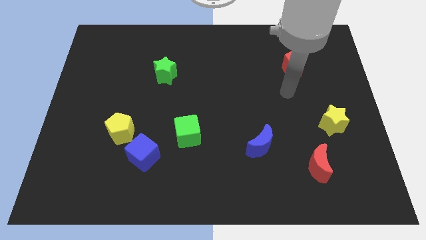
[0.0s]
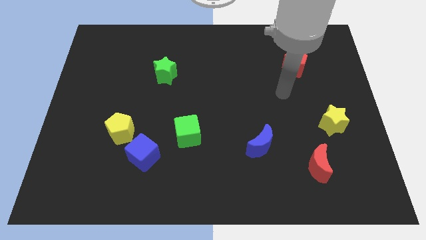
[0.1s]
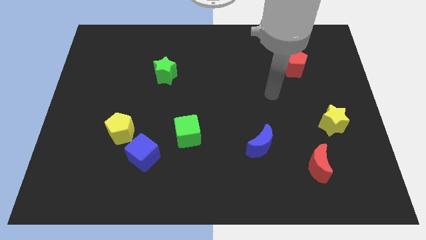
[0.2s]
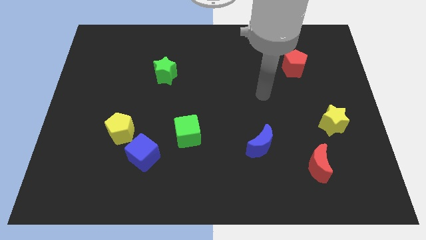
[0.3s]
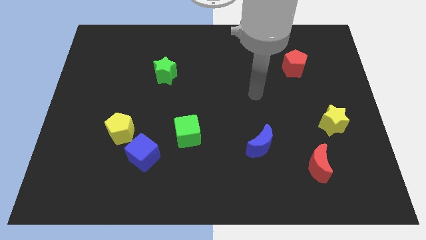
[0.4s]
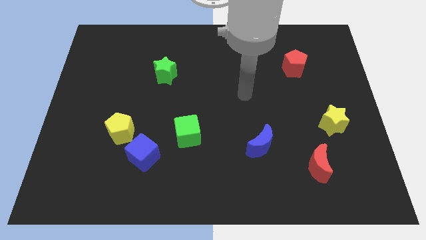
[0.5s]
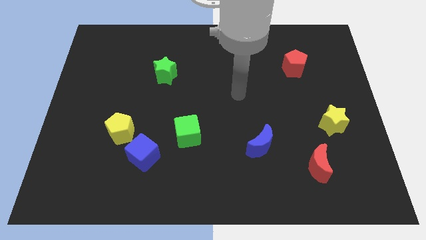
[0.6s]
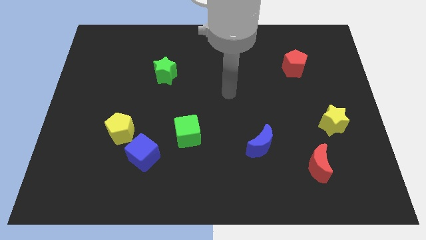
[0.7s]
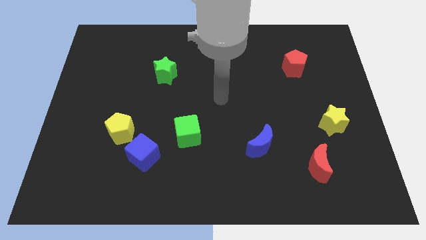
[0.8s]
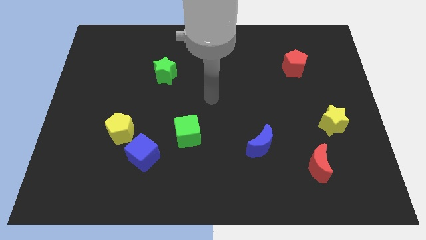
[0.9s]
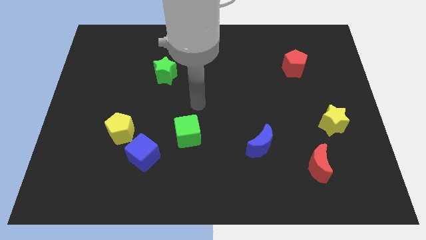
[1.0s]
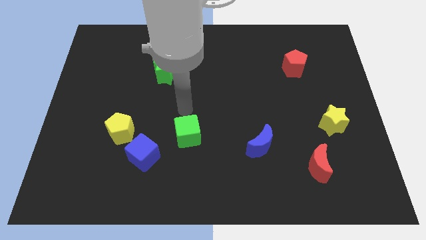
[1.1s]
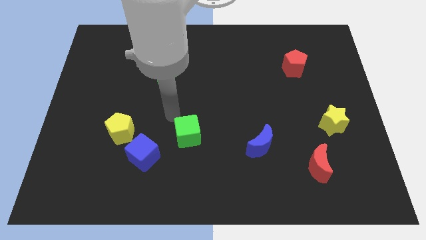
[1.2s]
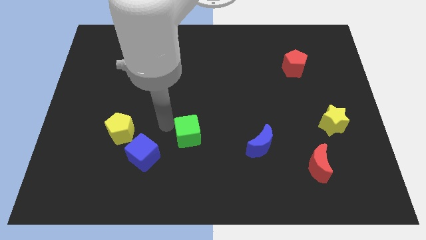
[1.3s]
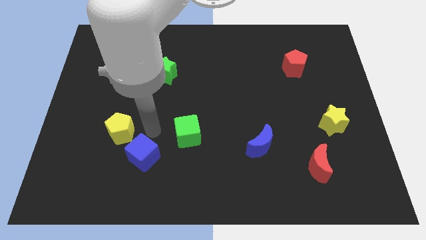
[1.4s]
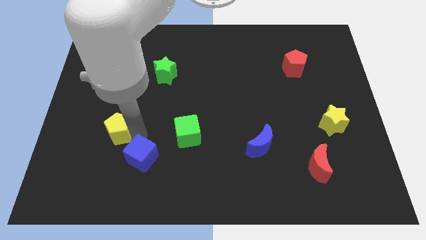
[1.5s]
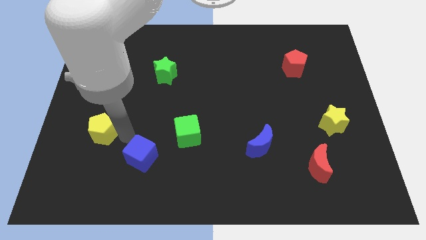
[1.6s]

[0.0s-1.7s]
separate the blue cube from the yellow pentagon

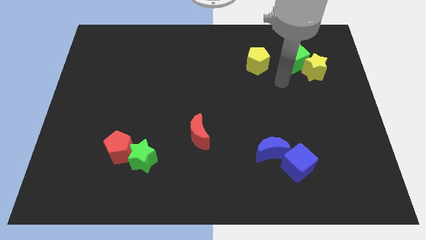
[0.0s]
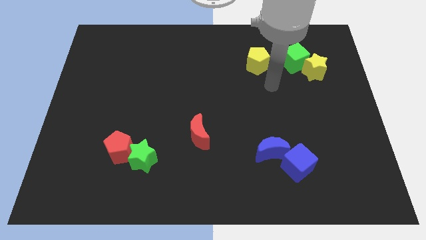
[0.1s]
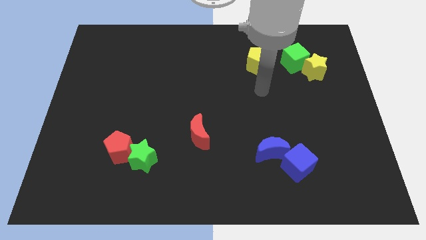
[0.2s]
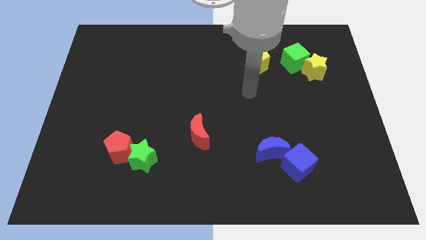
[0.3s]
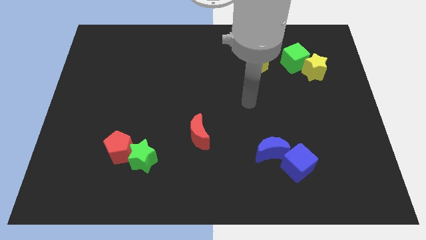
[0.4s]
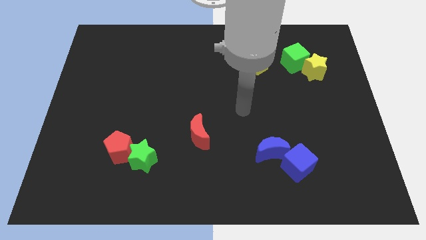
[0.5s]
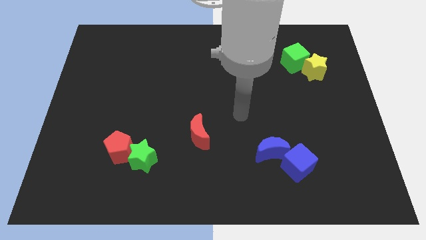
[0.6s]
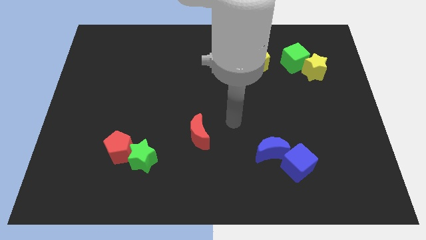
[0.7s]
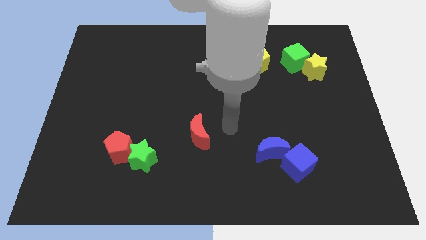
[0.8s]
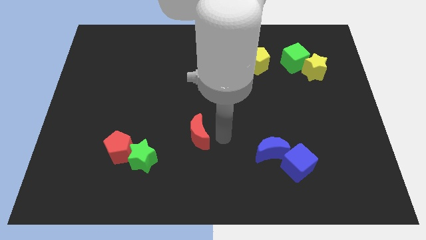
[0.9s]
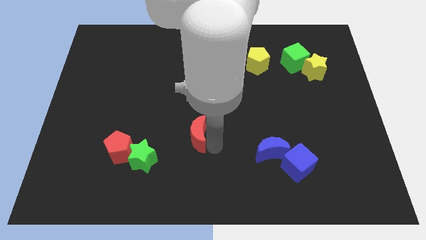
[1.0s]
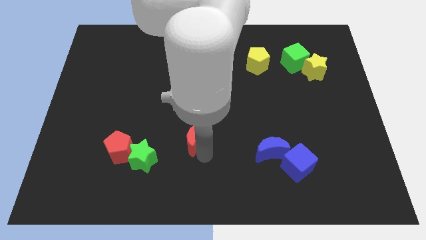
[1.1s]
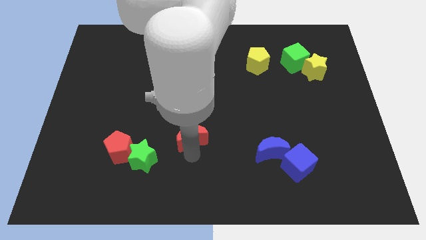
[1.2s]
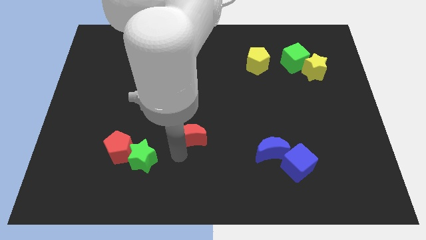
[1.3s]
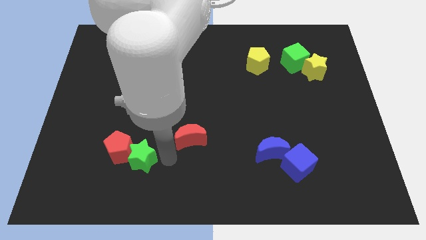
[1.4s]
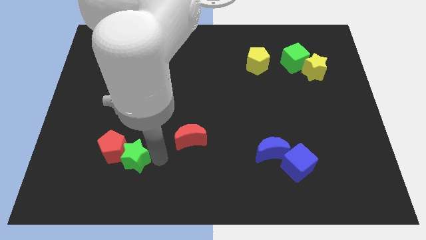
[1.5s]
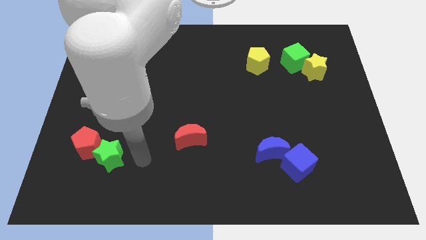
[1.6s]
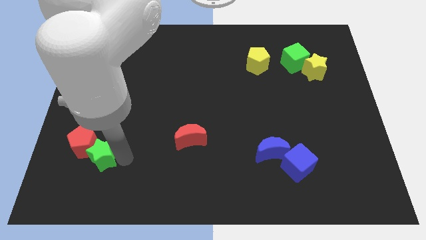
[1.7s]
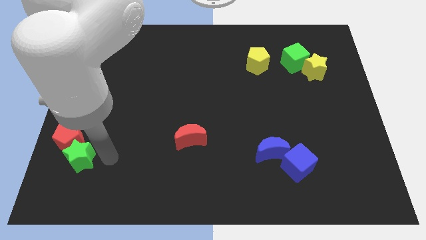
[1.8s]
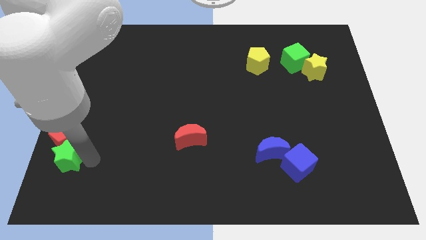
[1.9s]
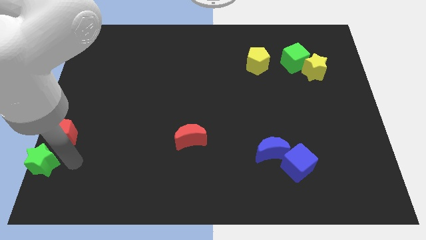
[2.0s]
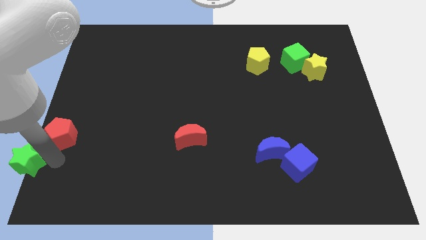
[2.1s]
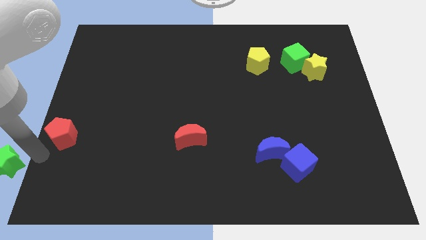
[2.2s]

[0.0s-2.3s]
move the red pentagon away from the green star

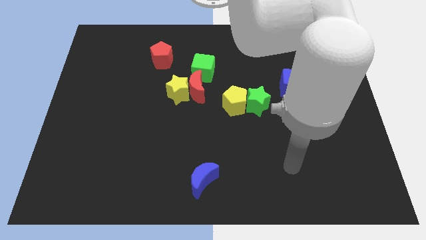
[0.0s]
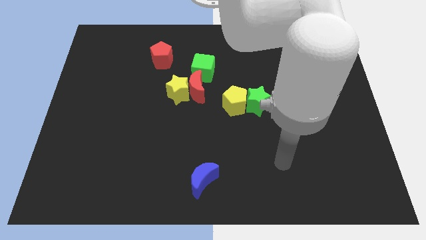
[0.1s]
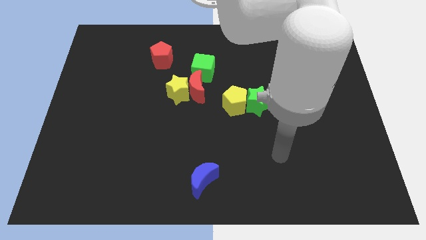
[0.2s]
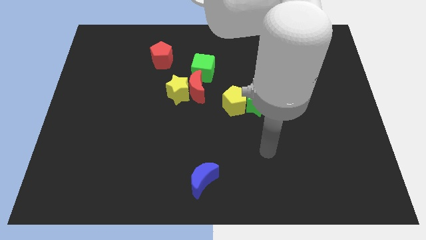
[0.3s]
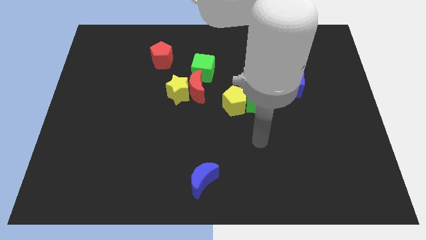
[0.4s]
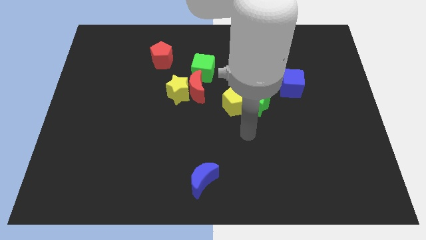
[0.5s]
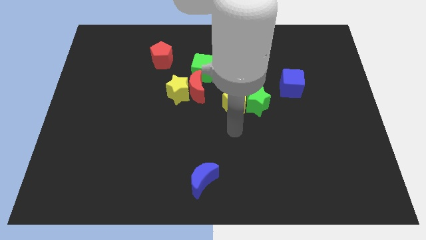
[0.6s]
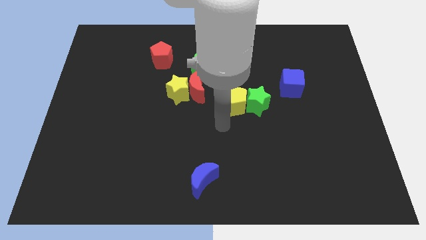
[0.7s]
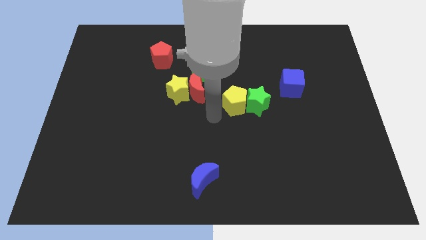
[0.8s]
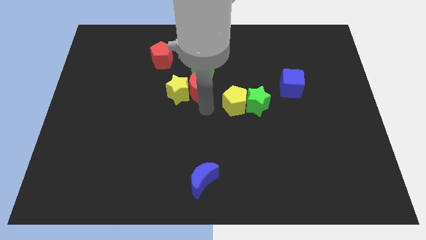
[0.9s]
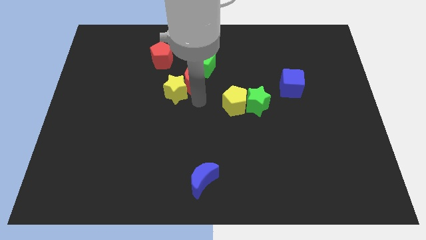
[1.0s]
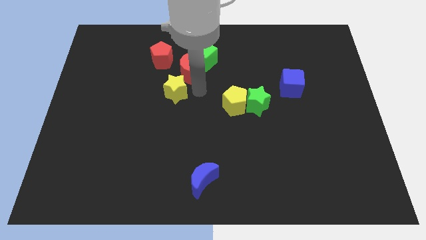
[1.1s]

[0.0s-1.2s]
separate the yellow star from the red moon and green cube

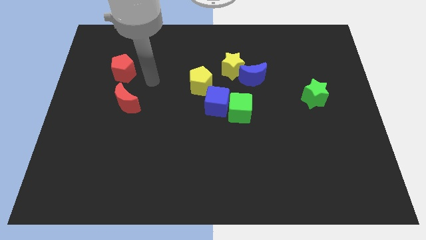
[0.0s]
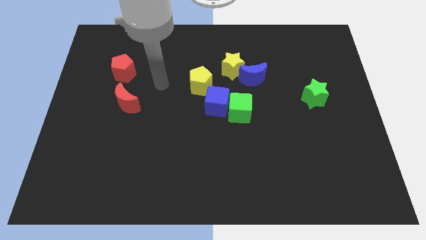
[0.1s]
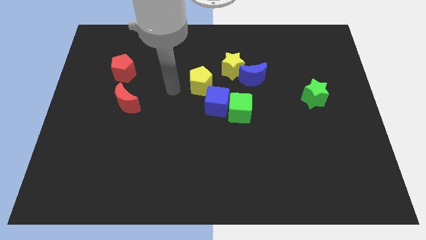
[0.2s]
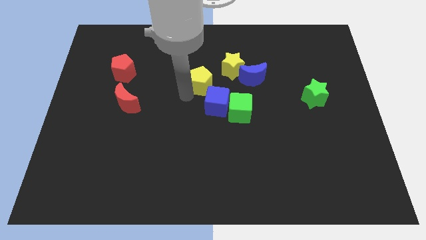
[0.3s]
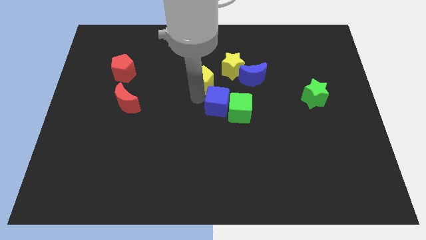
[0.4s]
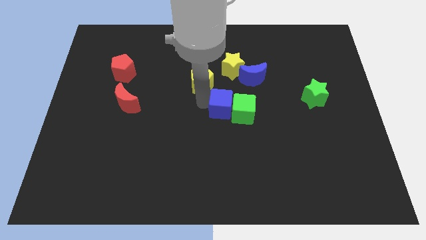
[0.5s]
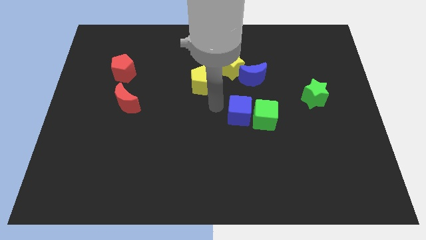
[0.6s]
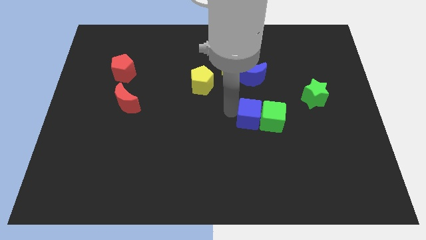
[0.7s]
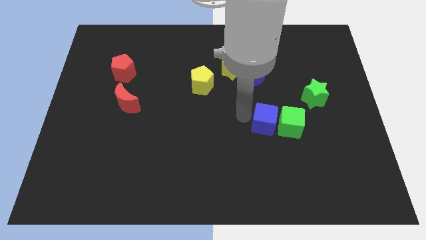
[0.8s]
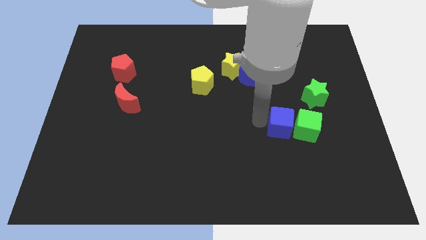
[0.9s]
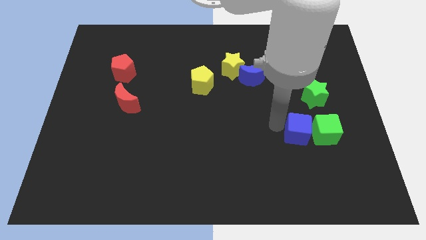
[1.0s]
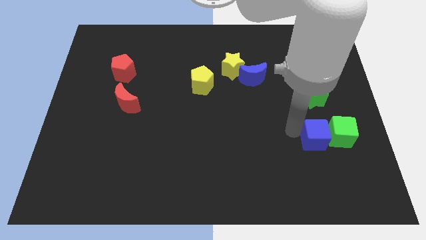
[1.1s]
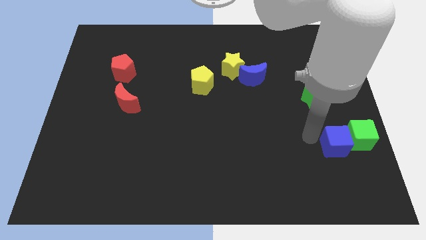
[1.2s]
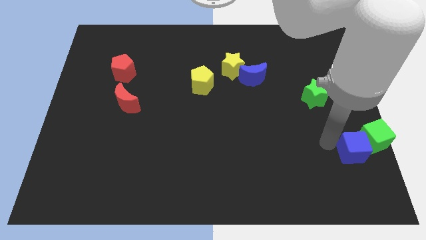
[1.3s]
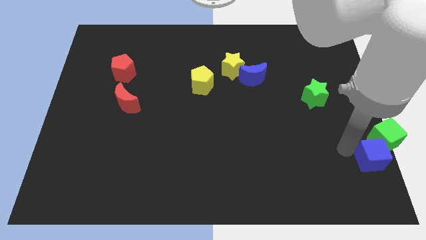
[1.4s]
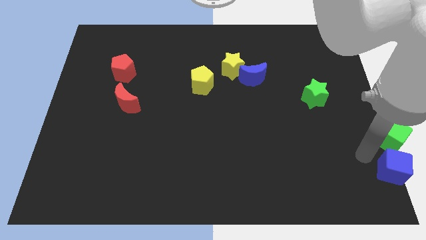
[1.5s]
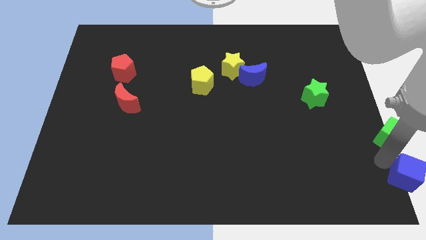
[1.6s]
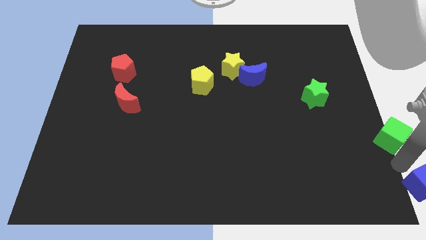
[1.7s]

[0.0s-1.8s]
separate the green cube from the blue cube

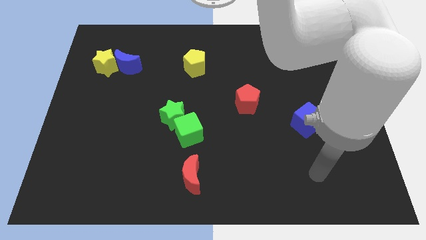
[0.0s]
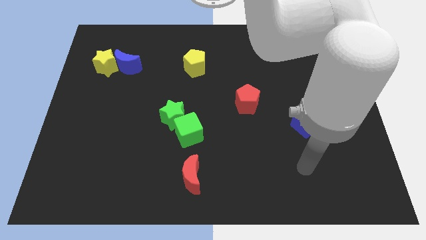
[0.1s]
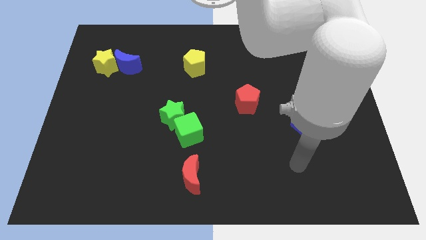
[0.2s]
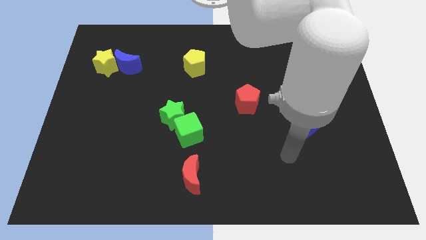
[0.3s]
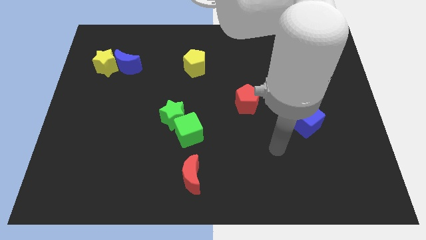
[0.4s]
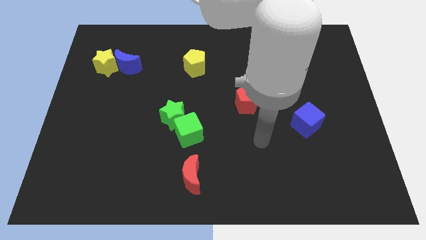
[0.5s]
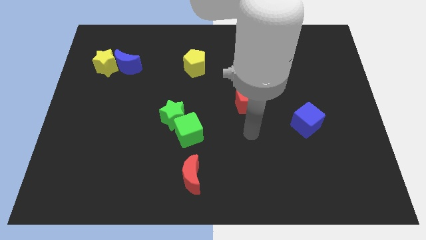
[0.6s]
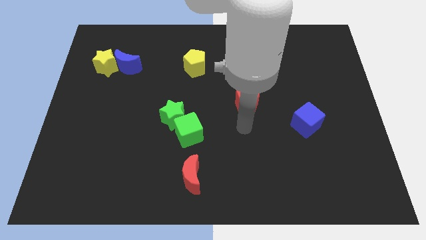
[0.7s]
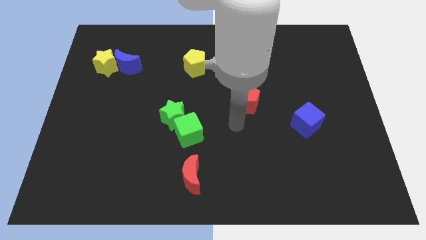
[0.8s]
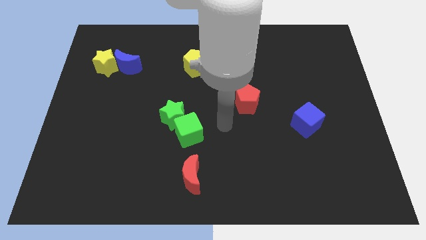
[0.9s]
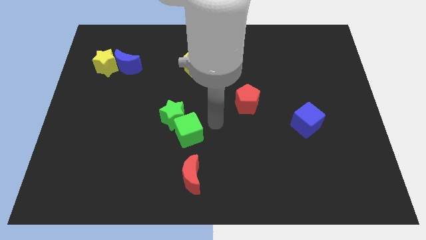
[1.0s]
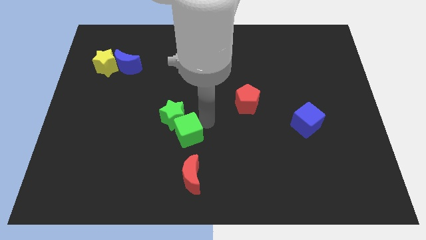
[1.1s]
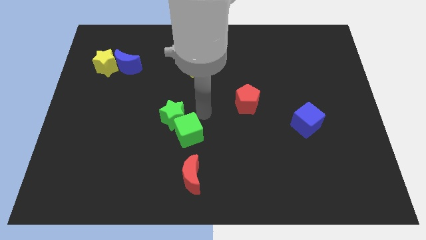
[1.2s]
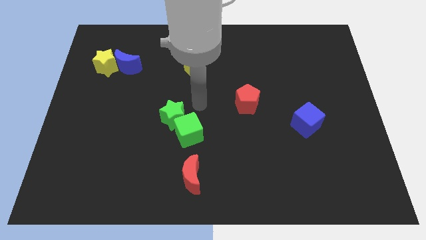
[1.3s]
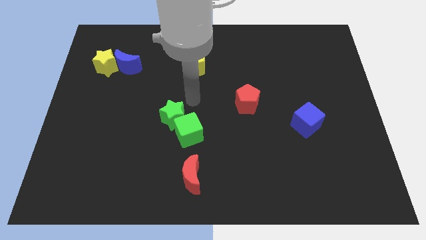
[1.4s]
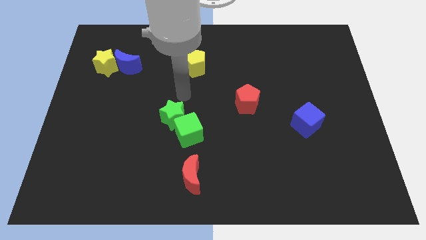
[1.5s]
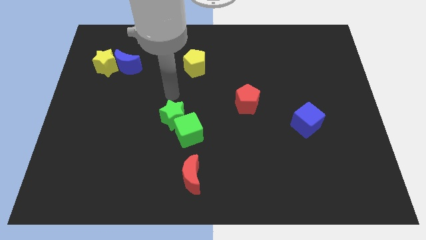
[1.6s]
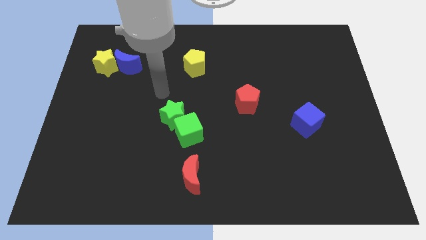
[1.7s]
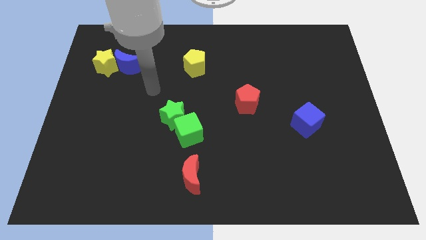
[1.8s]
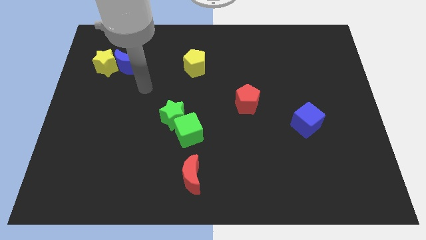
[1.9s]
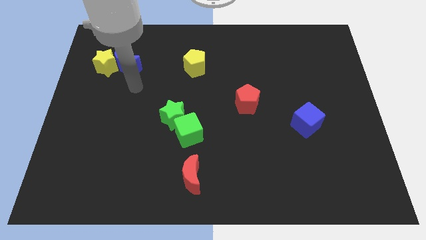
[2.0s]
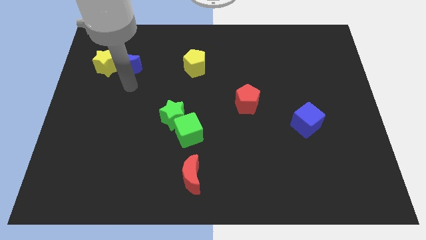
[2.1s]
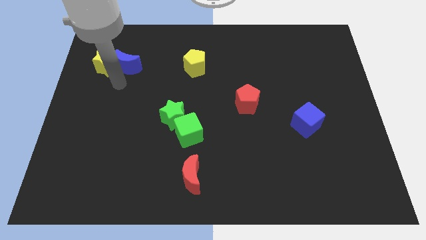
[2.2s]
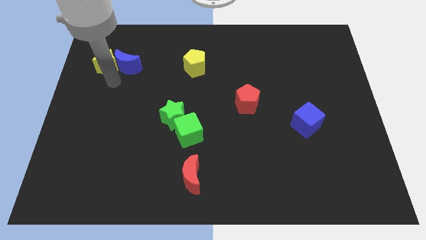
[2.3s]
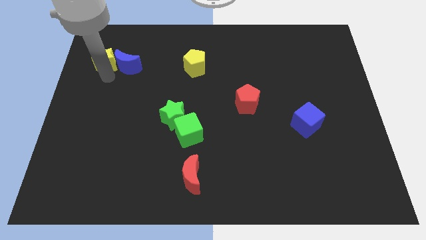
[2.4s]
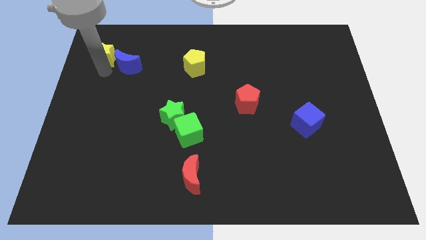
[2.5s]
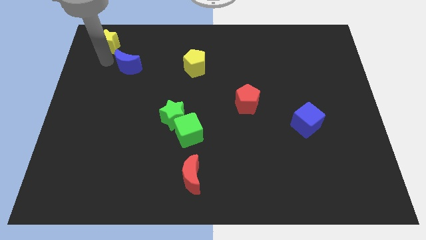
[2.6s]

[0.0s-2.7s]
separate the blue moon from the yellow star
